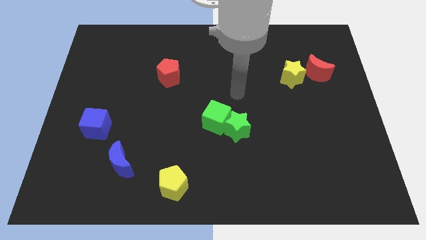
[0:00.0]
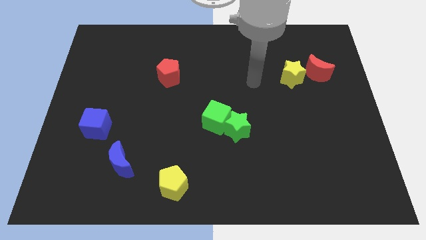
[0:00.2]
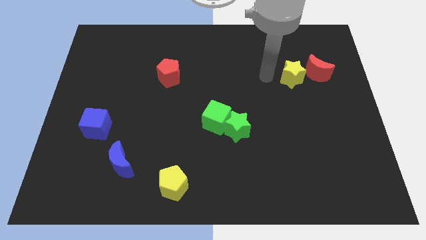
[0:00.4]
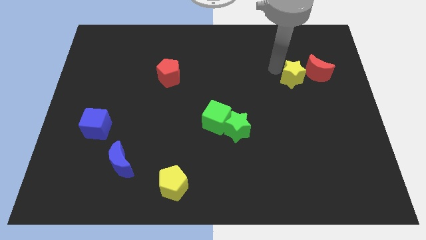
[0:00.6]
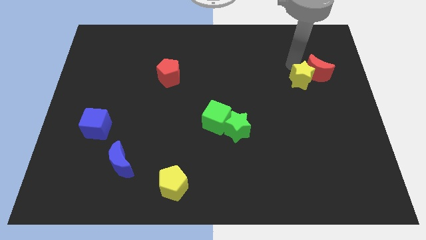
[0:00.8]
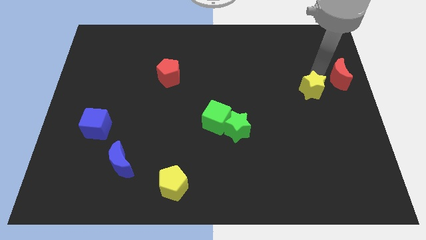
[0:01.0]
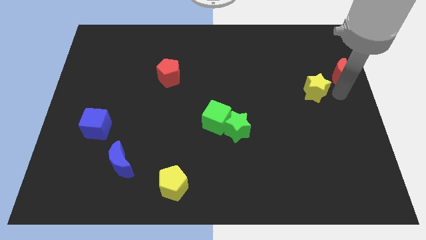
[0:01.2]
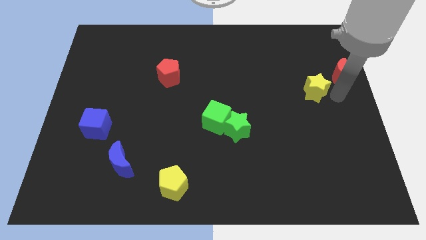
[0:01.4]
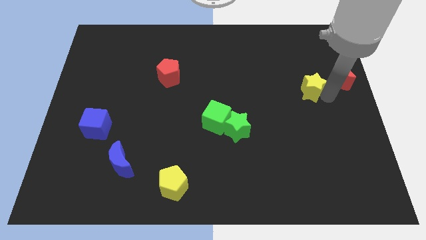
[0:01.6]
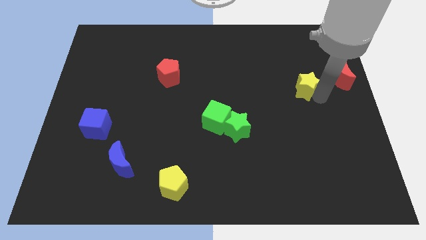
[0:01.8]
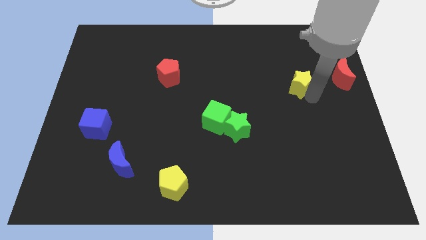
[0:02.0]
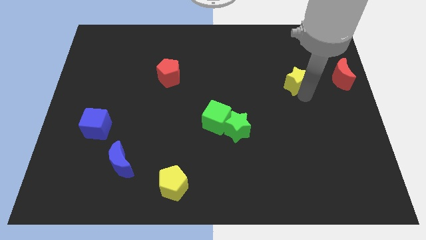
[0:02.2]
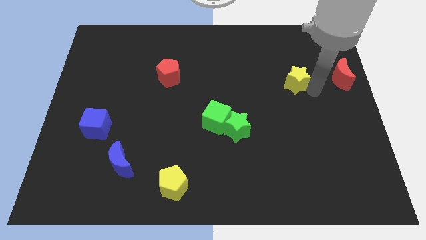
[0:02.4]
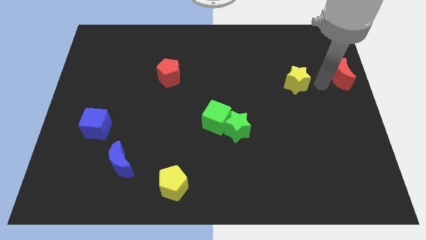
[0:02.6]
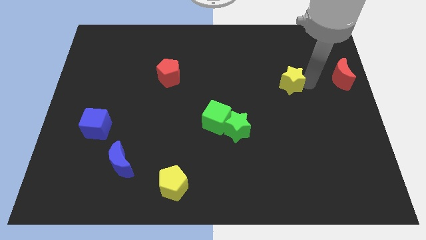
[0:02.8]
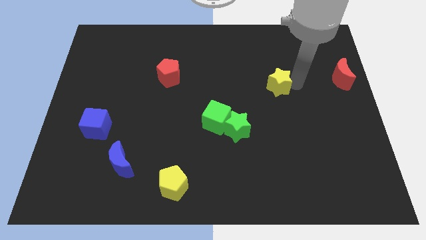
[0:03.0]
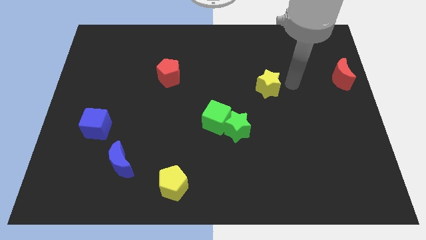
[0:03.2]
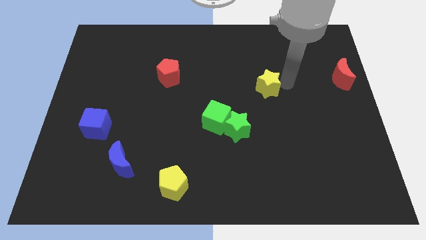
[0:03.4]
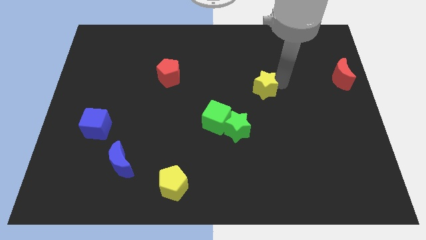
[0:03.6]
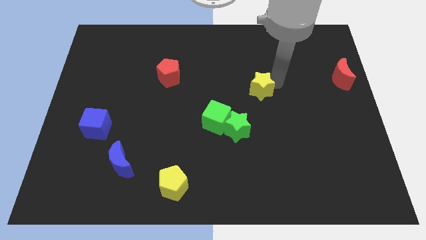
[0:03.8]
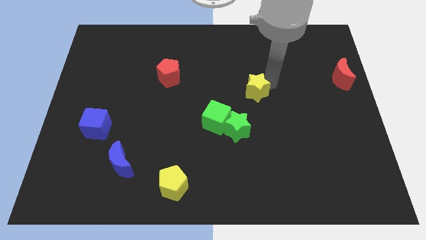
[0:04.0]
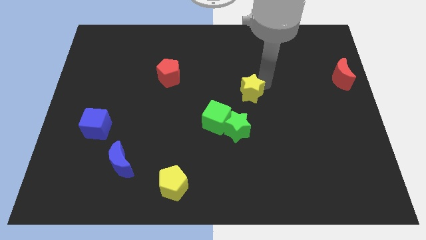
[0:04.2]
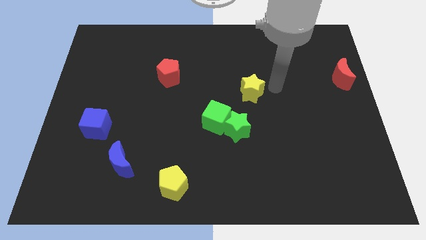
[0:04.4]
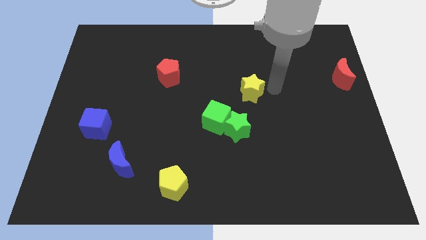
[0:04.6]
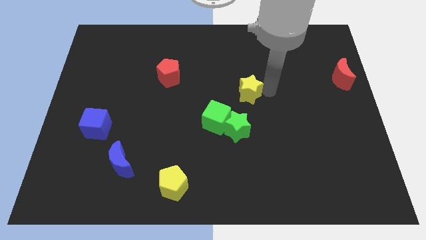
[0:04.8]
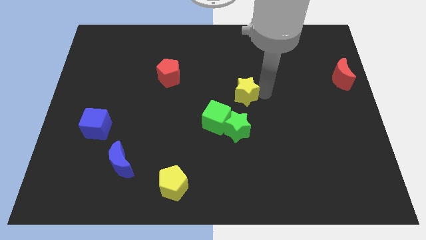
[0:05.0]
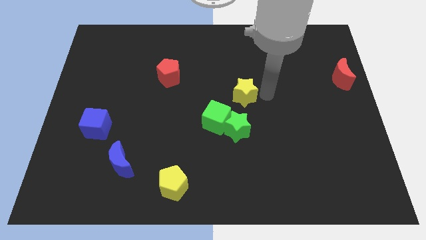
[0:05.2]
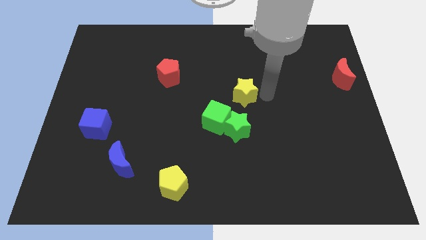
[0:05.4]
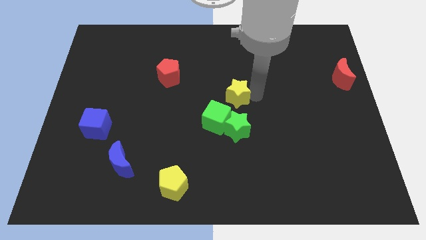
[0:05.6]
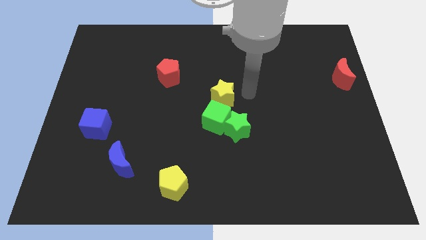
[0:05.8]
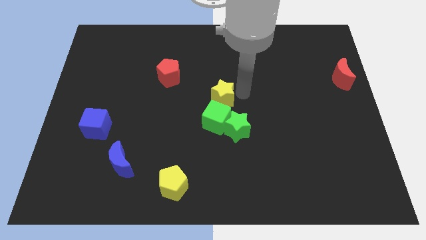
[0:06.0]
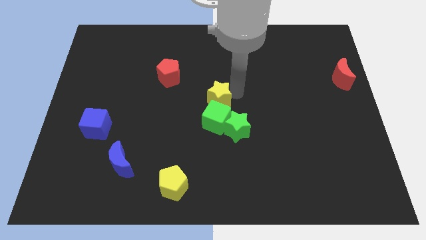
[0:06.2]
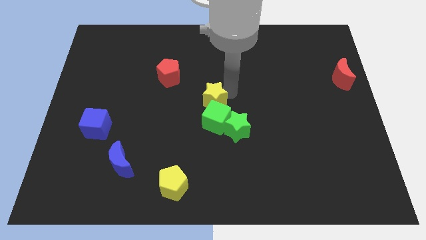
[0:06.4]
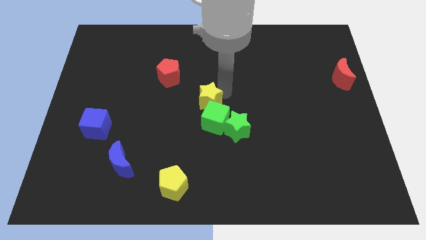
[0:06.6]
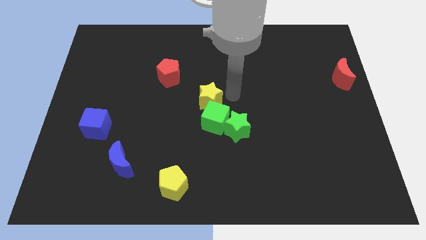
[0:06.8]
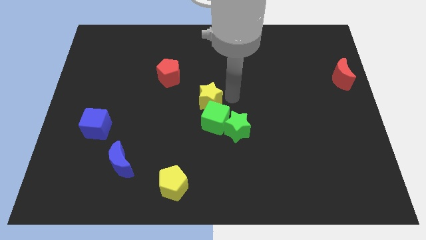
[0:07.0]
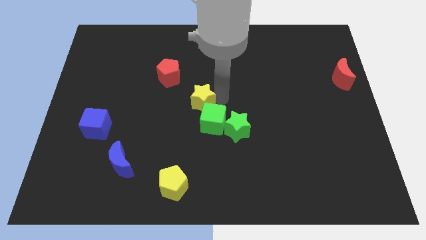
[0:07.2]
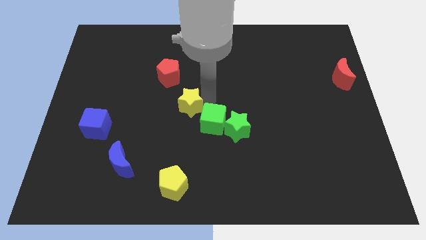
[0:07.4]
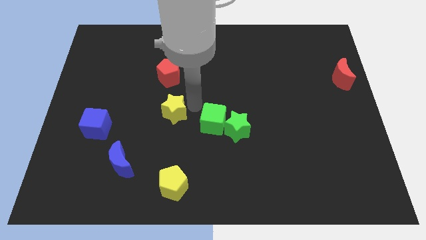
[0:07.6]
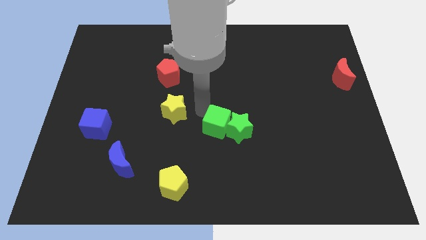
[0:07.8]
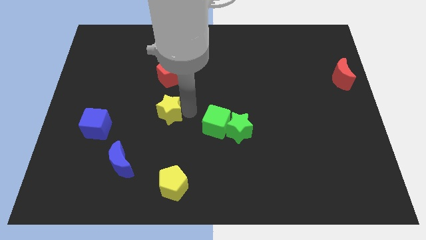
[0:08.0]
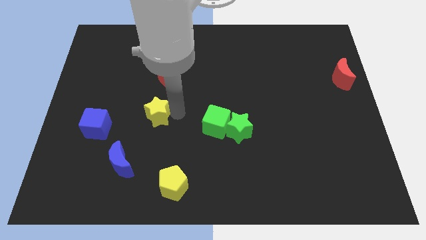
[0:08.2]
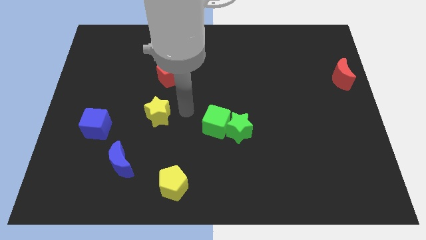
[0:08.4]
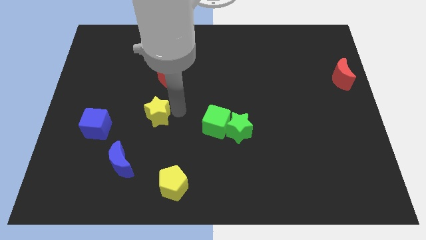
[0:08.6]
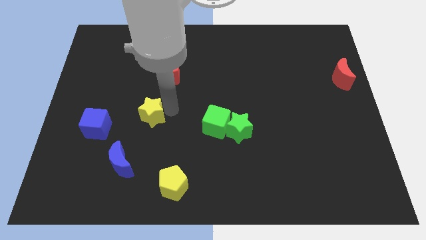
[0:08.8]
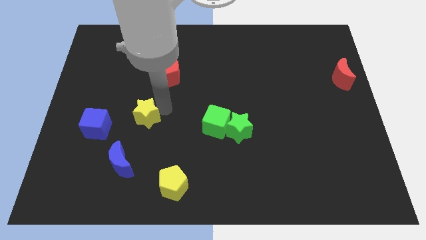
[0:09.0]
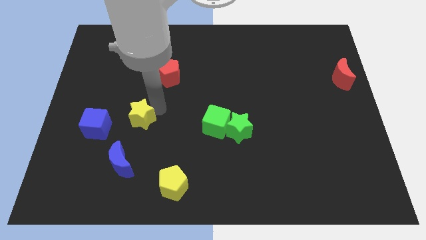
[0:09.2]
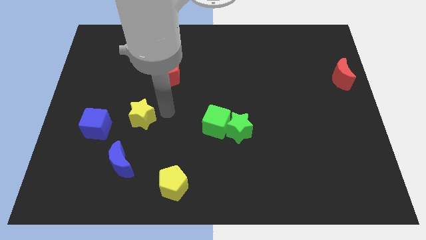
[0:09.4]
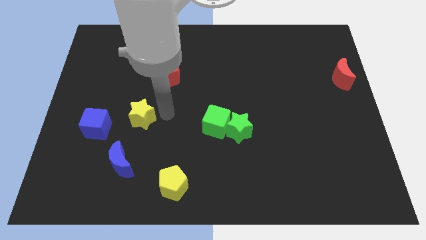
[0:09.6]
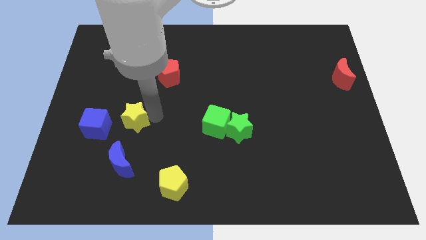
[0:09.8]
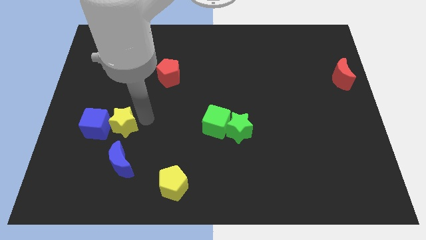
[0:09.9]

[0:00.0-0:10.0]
move the yellow star to the blue cube

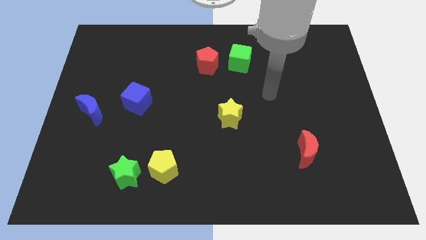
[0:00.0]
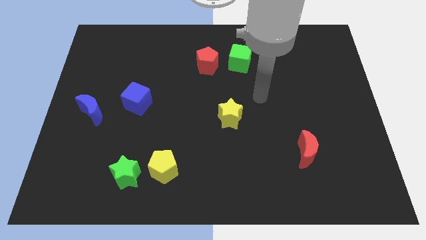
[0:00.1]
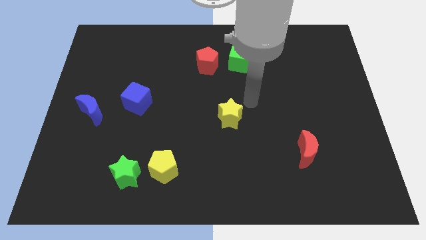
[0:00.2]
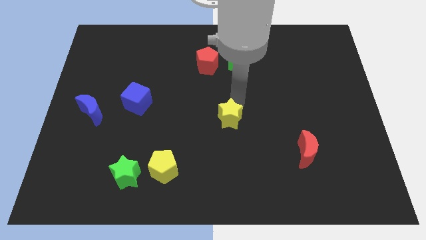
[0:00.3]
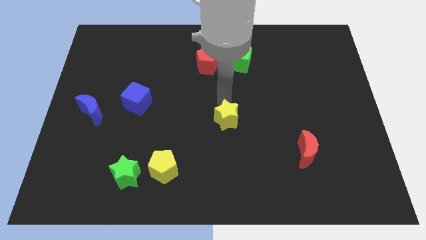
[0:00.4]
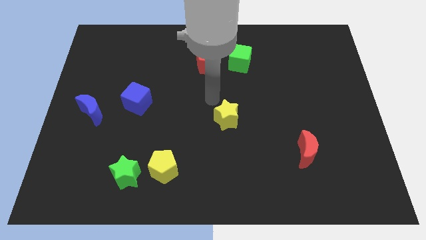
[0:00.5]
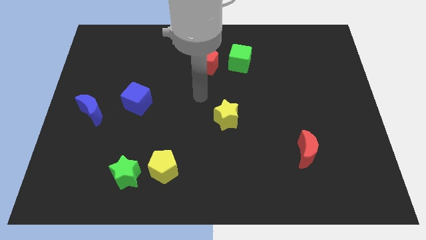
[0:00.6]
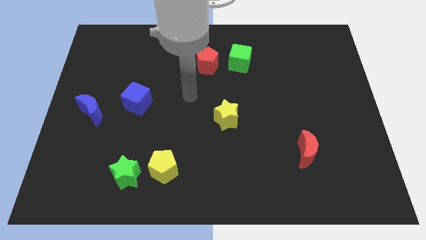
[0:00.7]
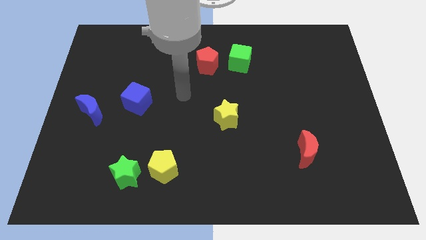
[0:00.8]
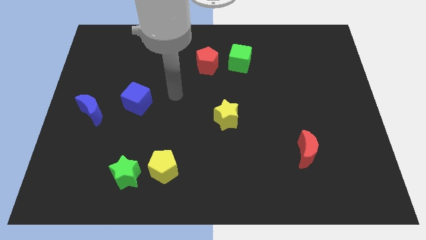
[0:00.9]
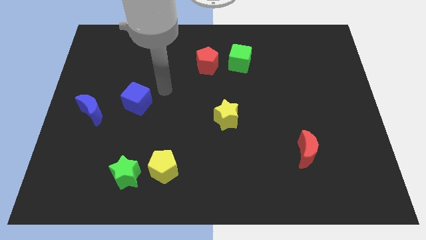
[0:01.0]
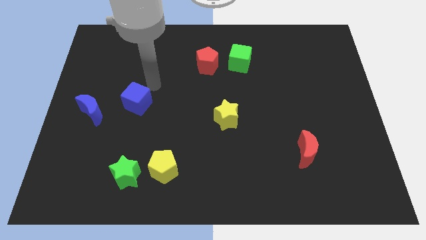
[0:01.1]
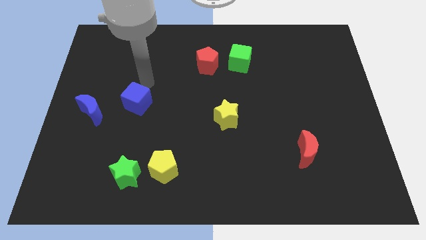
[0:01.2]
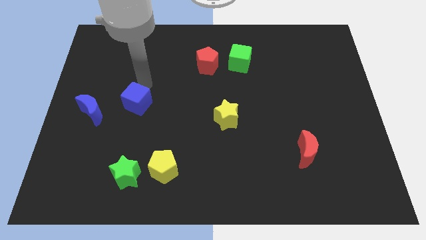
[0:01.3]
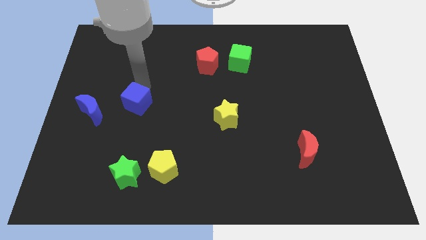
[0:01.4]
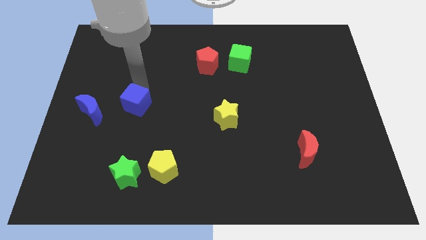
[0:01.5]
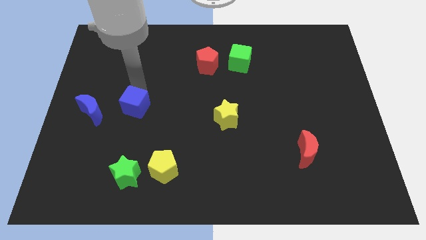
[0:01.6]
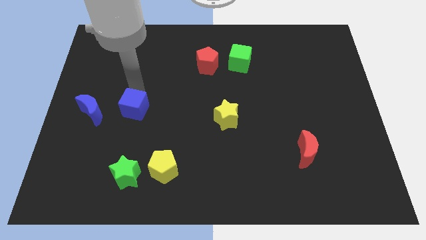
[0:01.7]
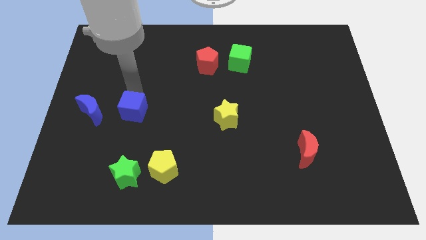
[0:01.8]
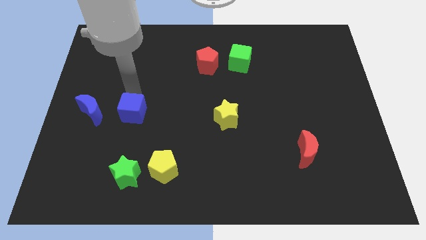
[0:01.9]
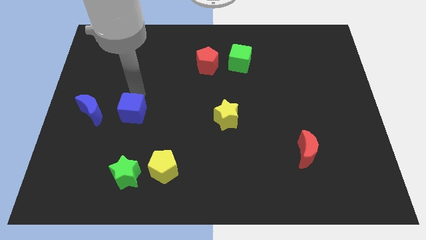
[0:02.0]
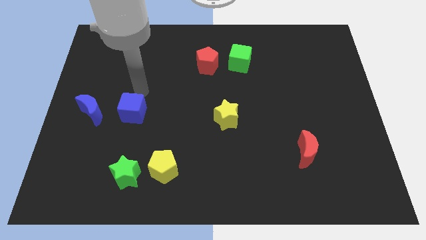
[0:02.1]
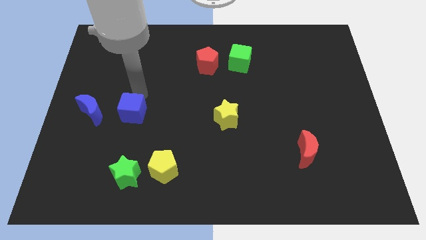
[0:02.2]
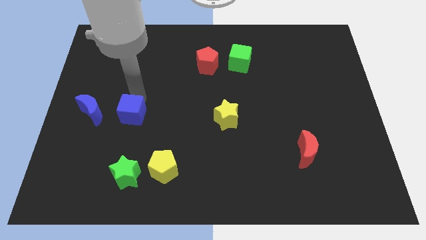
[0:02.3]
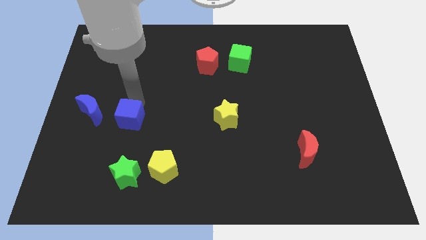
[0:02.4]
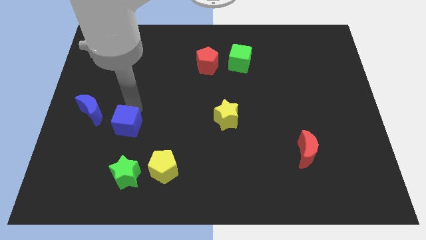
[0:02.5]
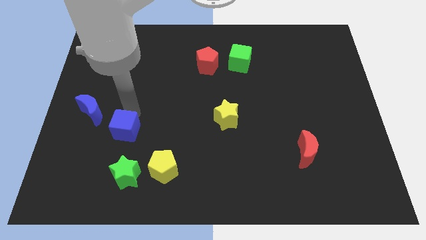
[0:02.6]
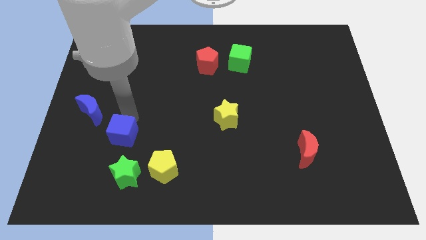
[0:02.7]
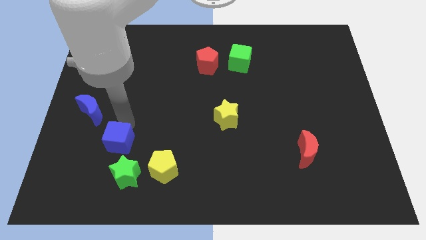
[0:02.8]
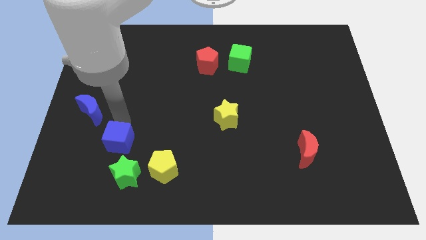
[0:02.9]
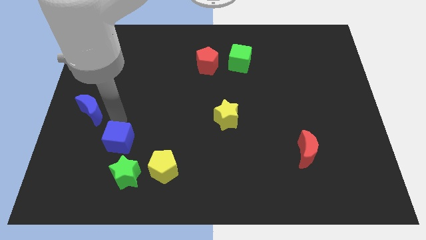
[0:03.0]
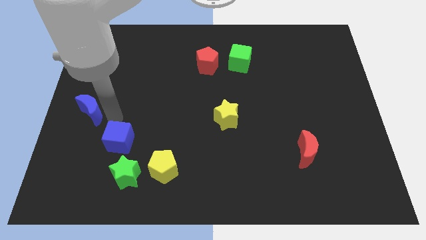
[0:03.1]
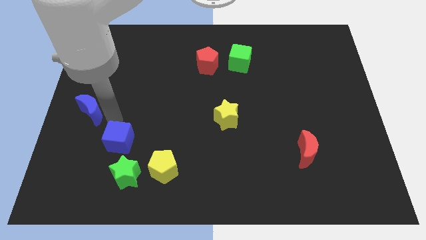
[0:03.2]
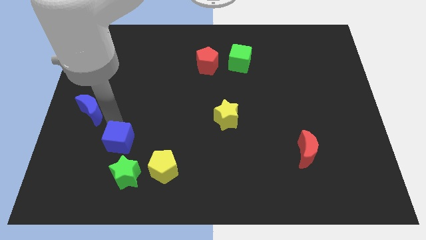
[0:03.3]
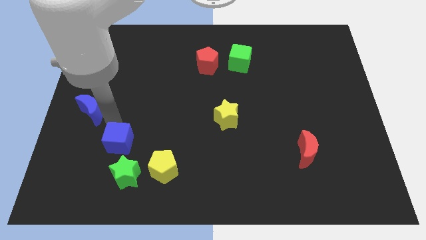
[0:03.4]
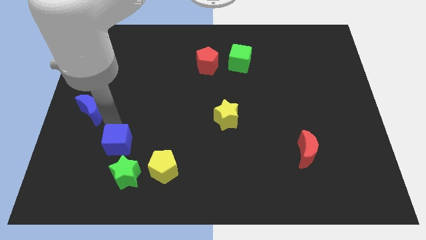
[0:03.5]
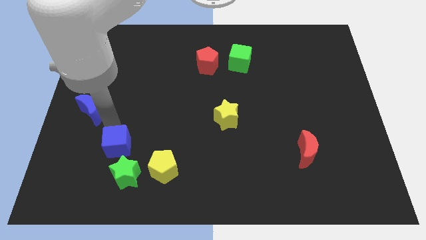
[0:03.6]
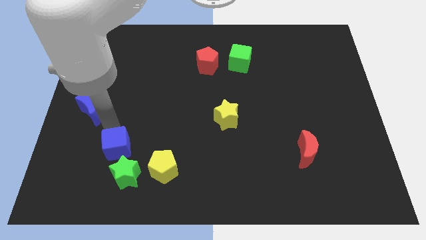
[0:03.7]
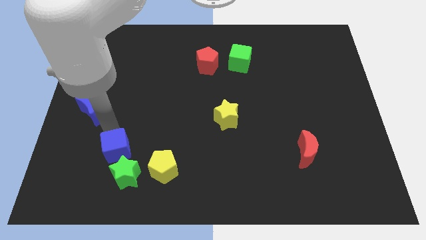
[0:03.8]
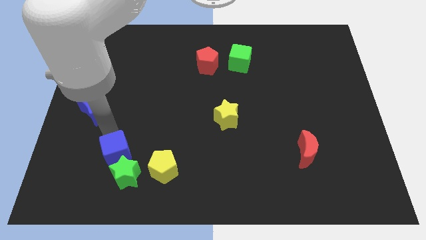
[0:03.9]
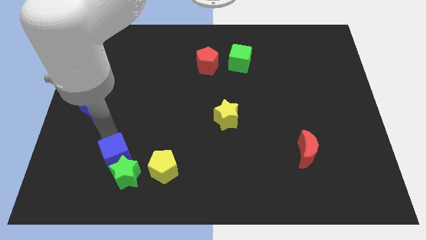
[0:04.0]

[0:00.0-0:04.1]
put the blue cube to the green star
